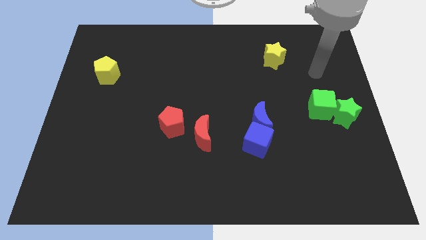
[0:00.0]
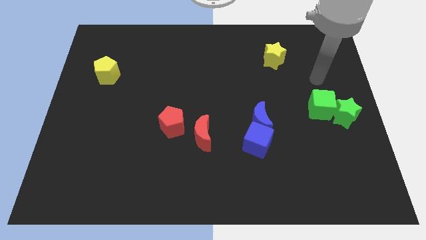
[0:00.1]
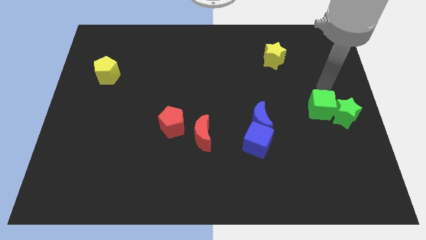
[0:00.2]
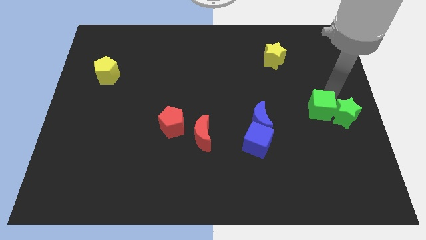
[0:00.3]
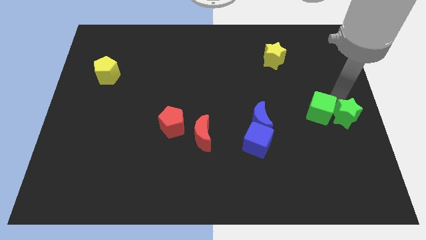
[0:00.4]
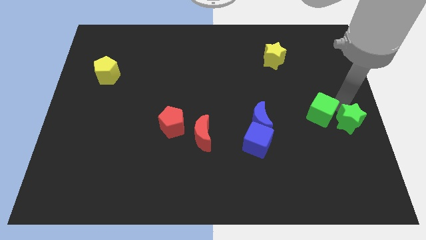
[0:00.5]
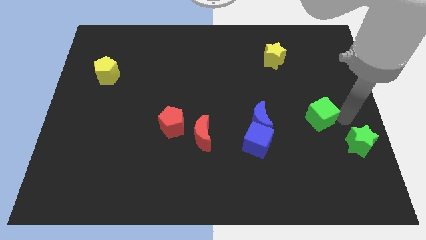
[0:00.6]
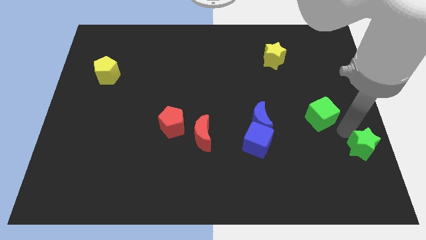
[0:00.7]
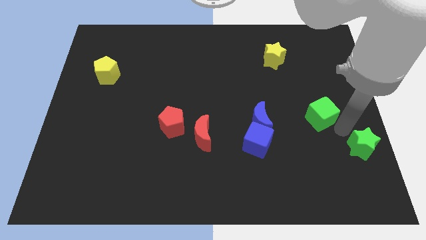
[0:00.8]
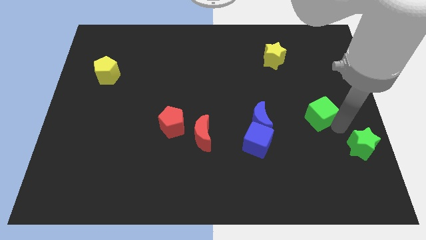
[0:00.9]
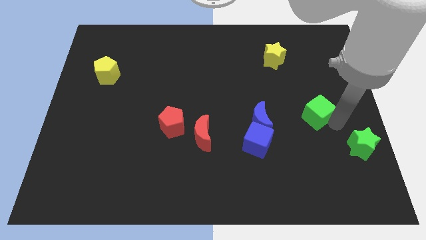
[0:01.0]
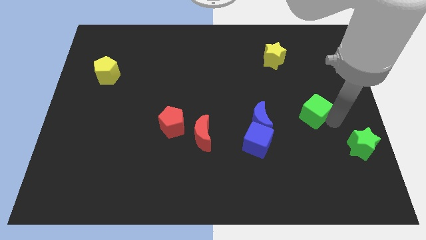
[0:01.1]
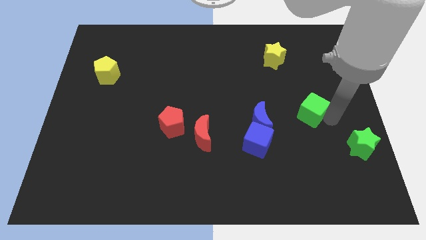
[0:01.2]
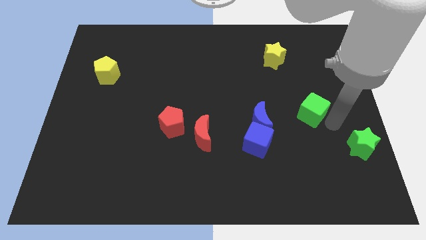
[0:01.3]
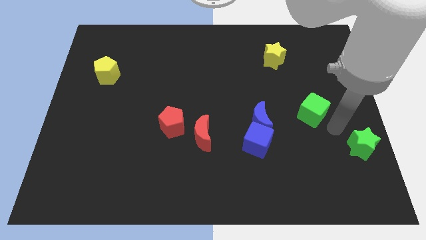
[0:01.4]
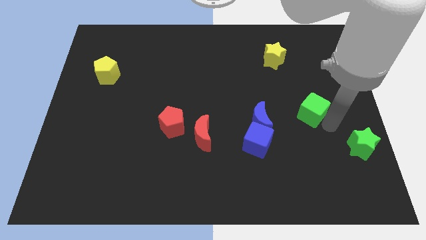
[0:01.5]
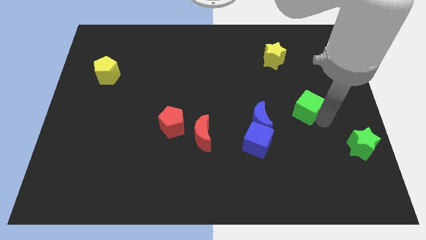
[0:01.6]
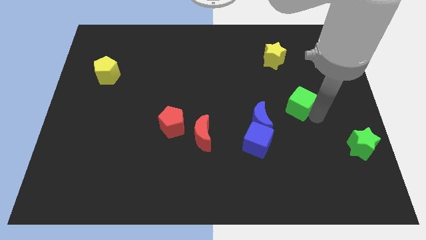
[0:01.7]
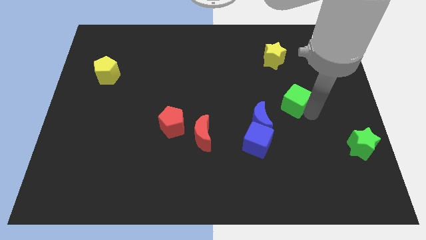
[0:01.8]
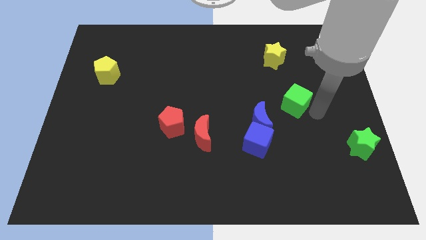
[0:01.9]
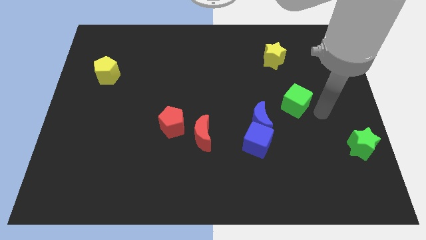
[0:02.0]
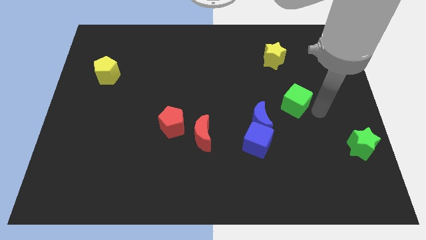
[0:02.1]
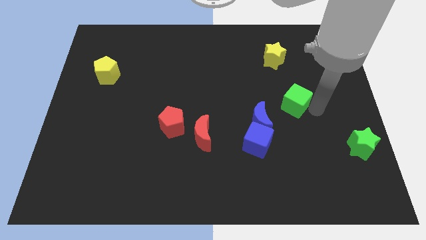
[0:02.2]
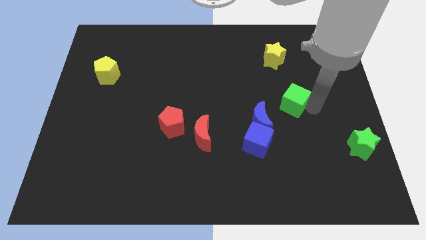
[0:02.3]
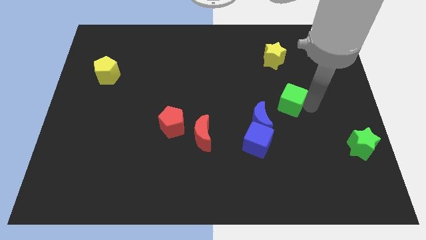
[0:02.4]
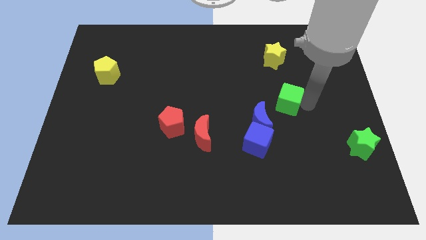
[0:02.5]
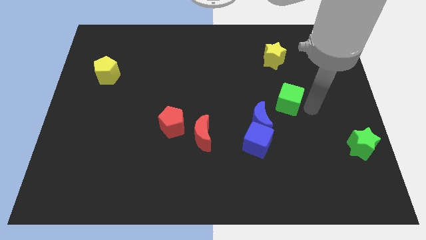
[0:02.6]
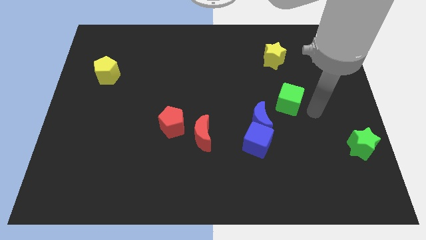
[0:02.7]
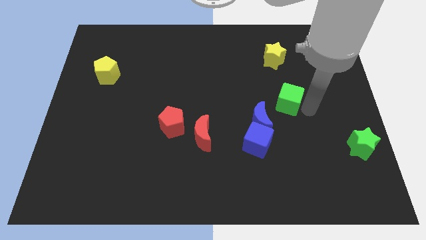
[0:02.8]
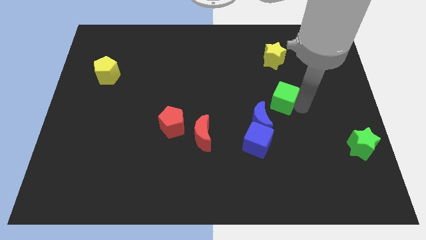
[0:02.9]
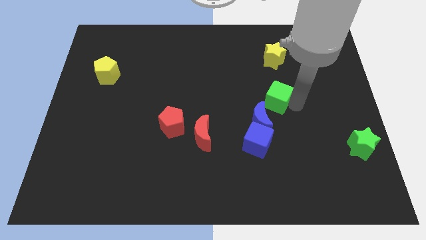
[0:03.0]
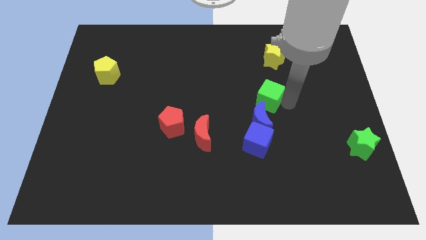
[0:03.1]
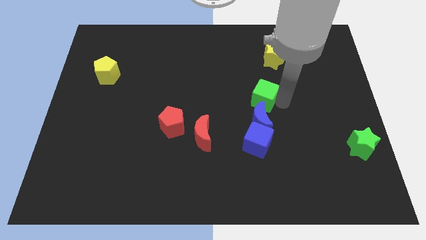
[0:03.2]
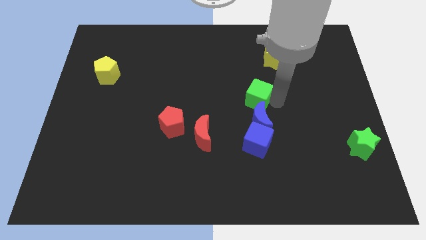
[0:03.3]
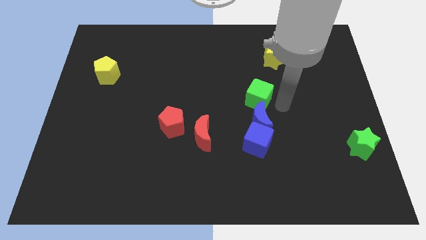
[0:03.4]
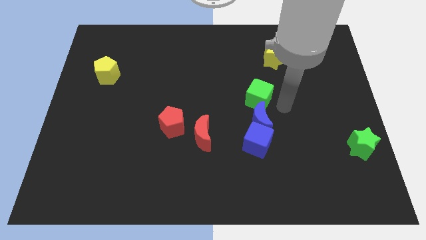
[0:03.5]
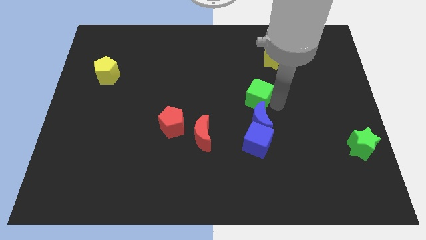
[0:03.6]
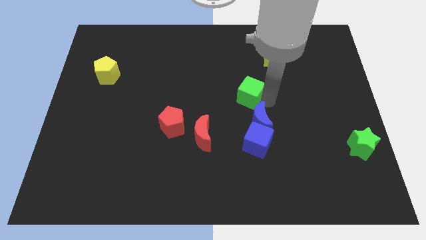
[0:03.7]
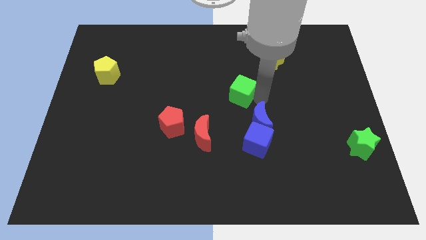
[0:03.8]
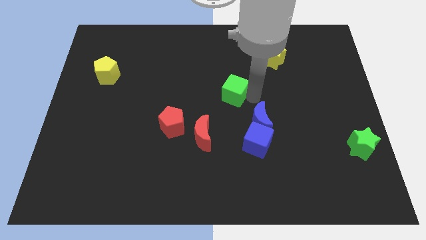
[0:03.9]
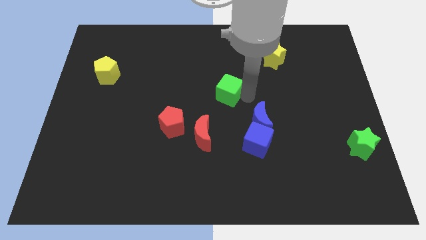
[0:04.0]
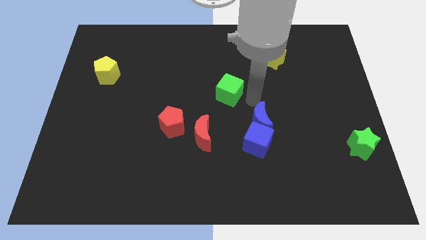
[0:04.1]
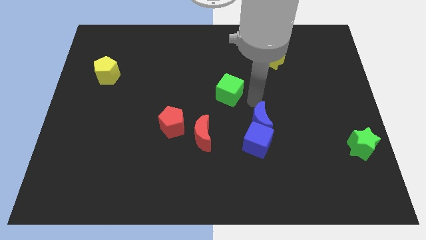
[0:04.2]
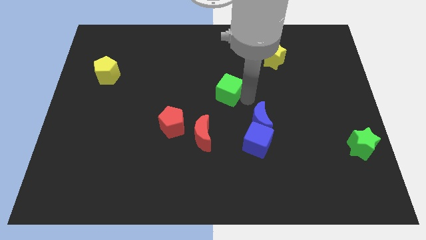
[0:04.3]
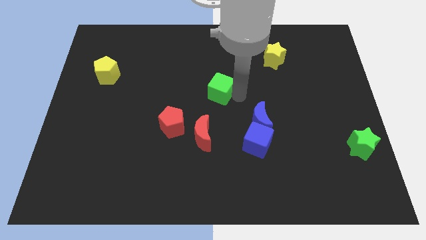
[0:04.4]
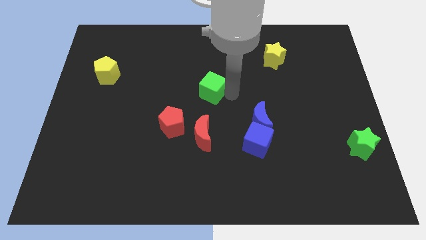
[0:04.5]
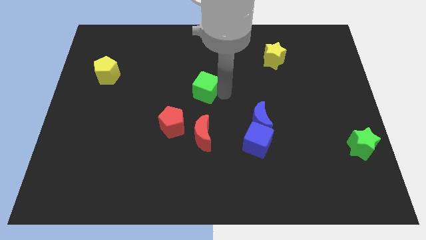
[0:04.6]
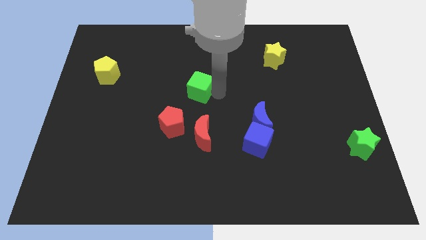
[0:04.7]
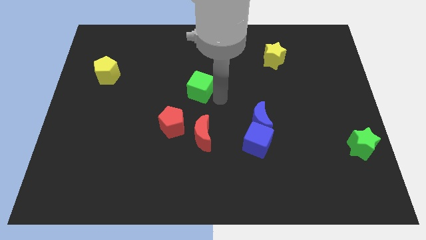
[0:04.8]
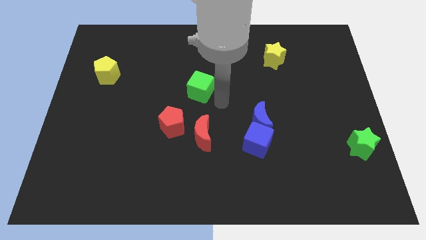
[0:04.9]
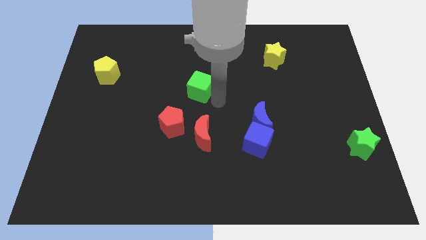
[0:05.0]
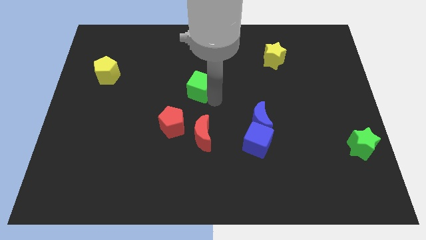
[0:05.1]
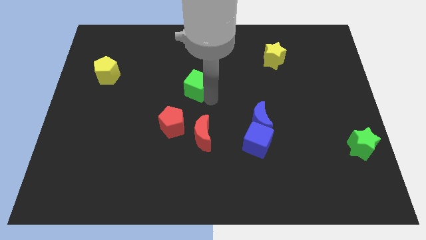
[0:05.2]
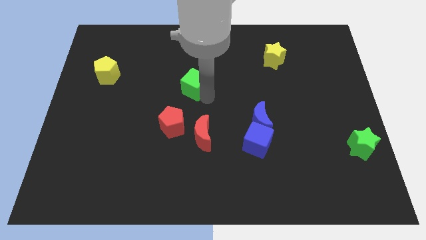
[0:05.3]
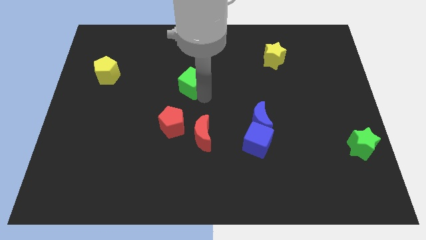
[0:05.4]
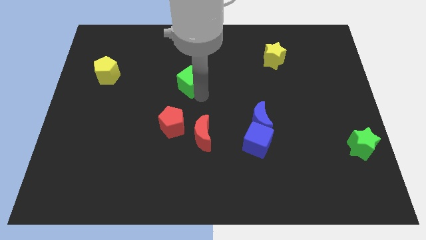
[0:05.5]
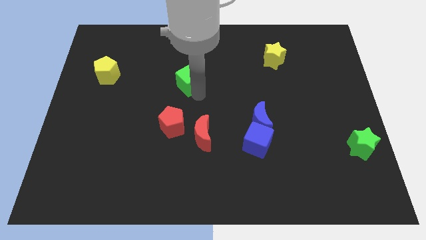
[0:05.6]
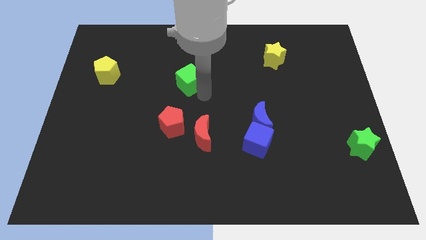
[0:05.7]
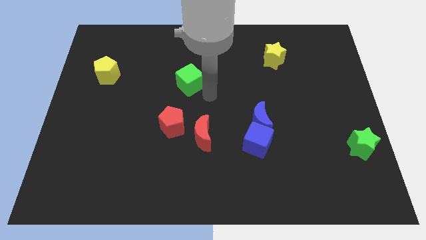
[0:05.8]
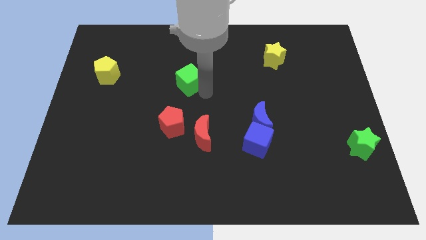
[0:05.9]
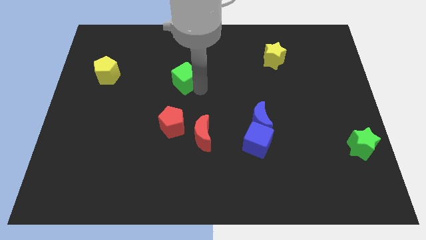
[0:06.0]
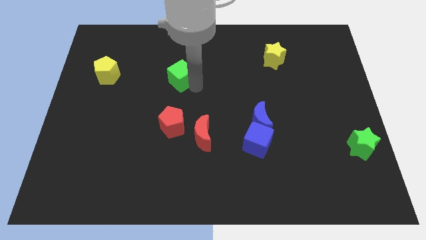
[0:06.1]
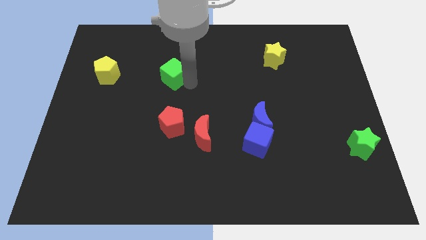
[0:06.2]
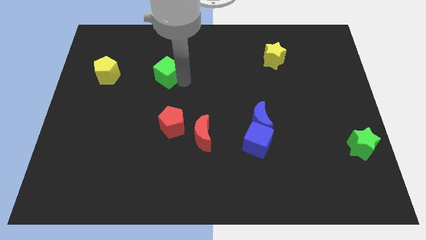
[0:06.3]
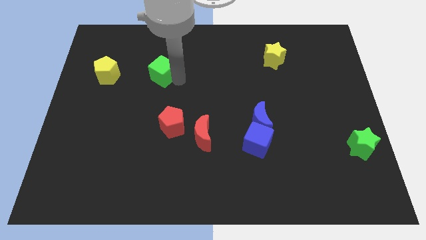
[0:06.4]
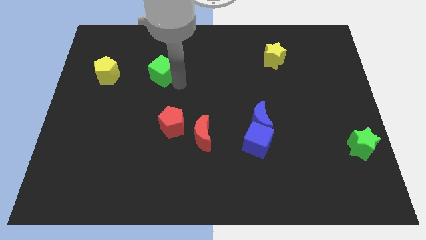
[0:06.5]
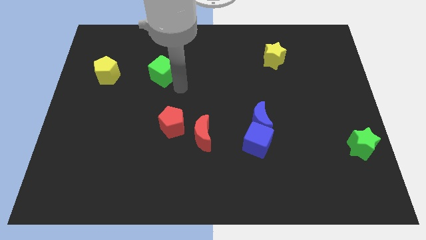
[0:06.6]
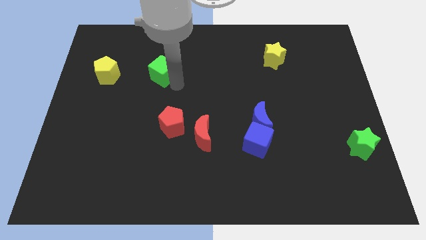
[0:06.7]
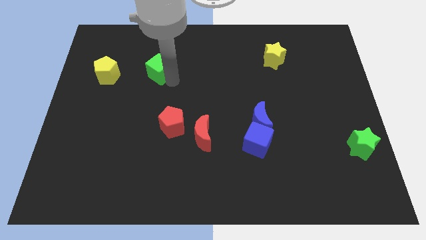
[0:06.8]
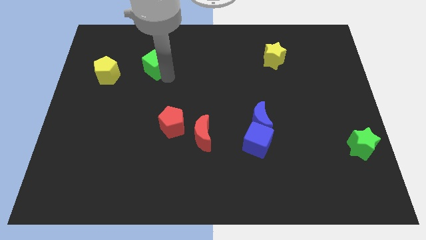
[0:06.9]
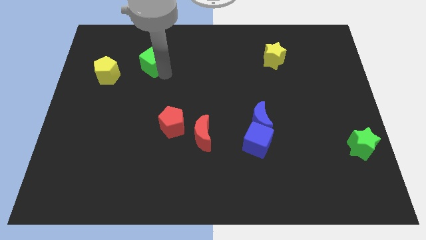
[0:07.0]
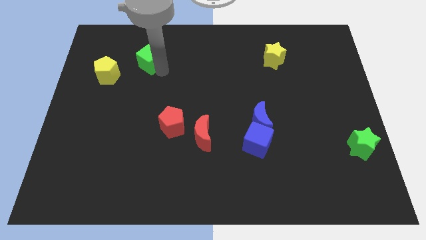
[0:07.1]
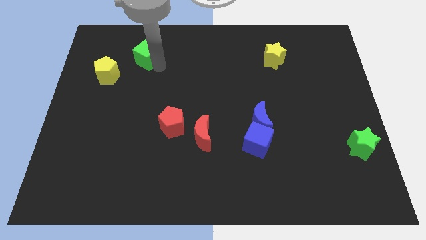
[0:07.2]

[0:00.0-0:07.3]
move the green cube diagonally up and to the right of the yellow pentagon
